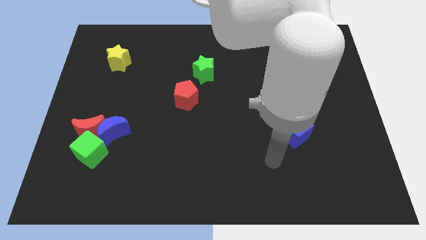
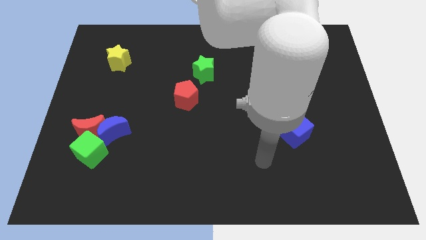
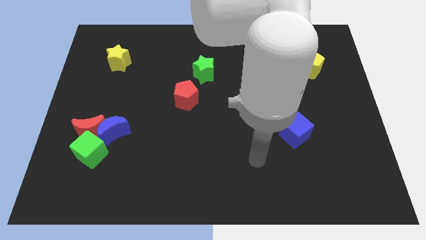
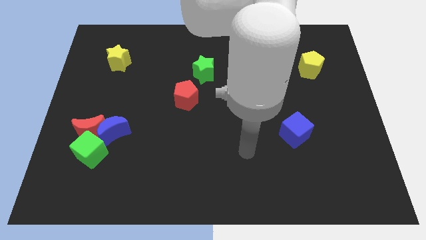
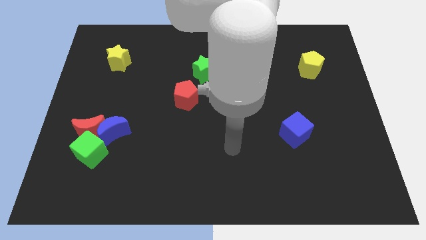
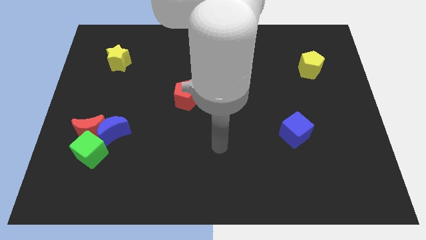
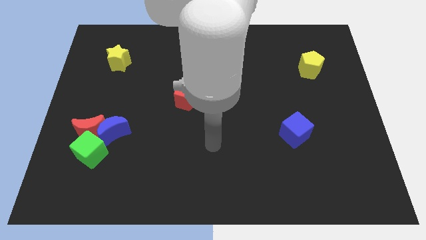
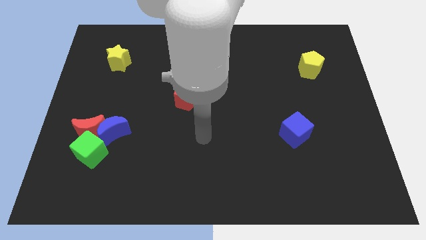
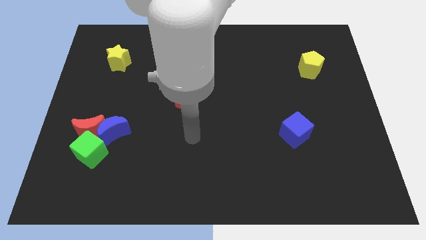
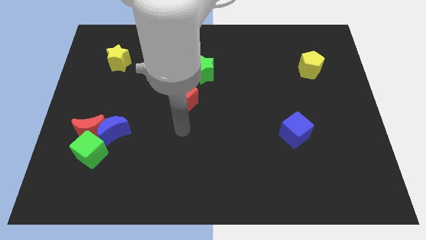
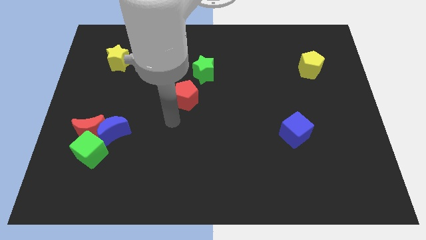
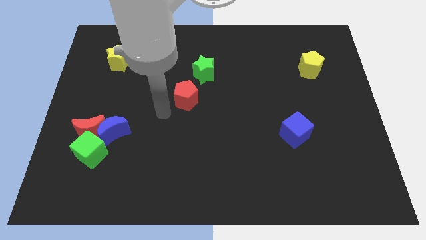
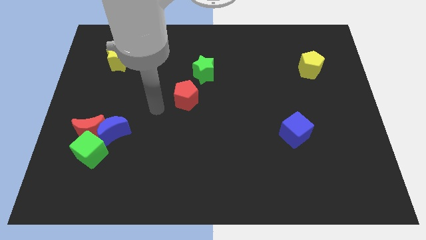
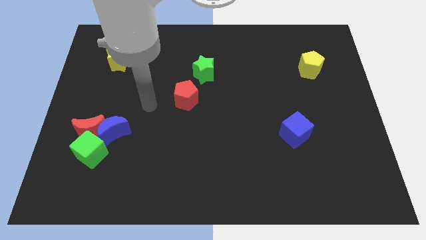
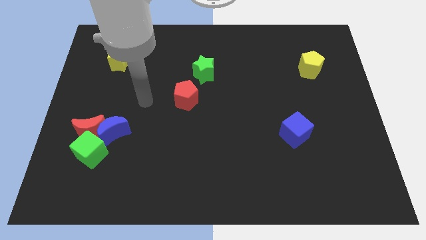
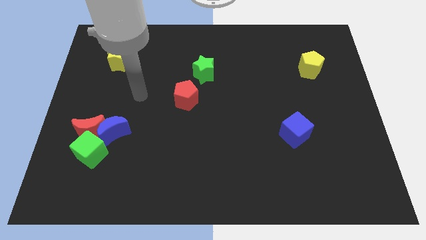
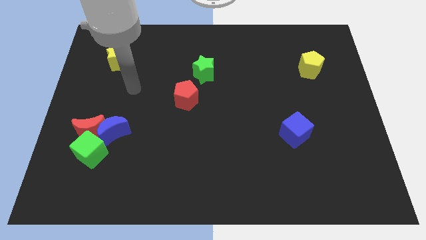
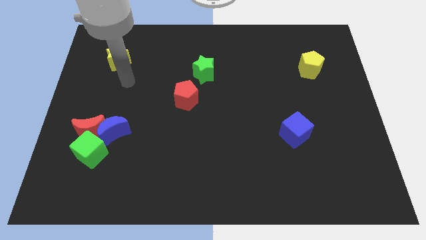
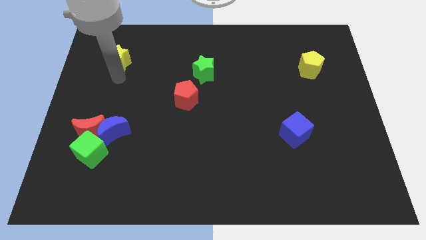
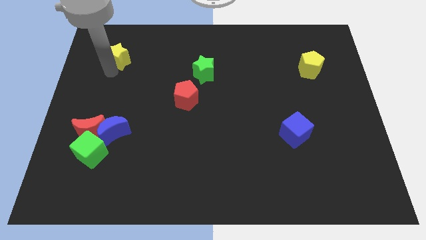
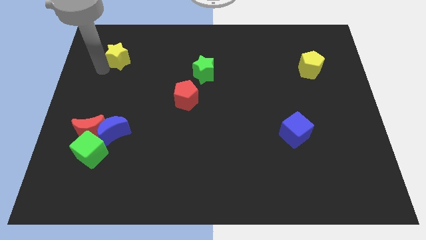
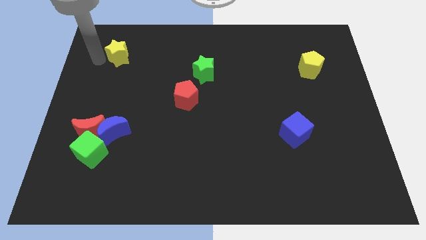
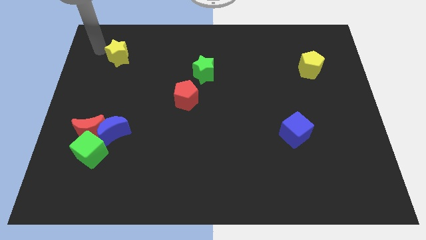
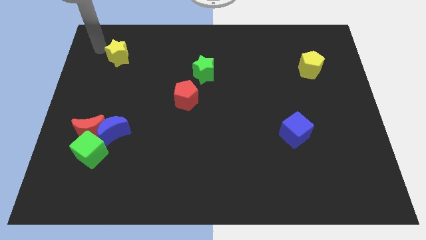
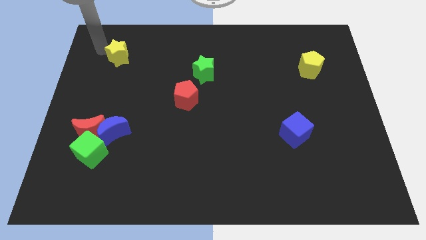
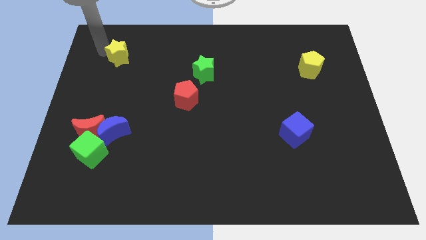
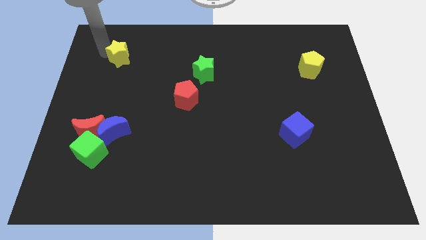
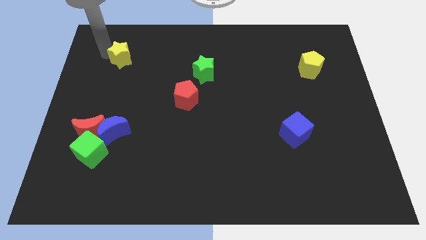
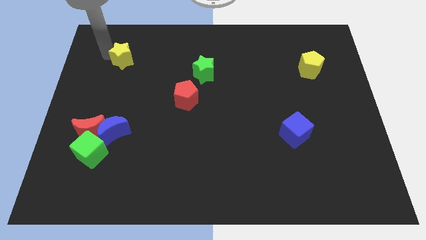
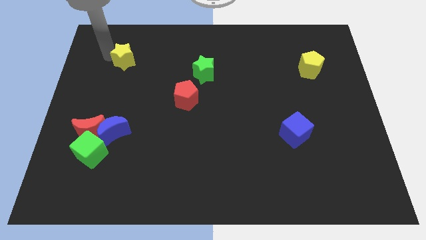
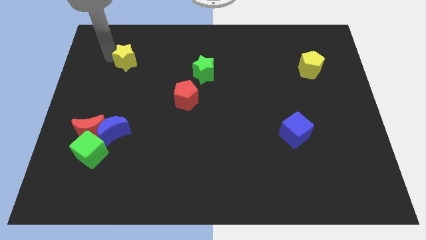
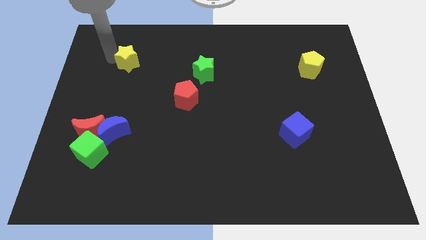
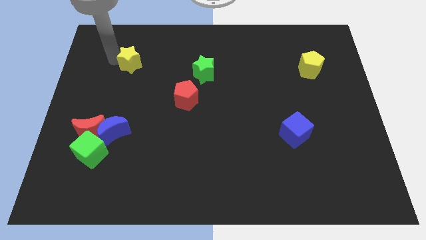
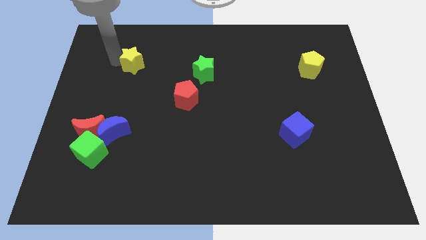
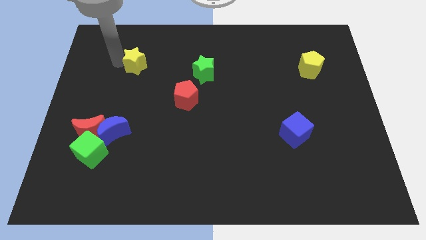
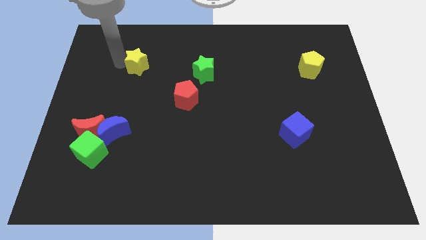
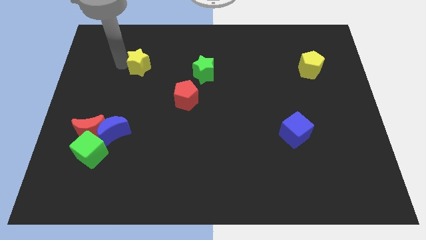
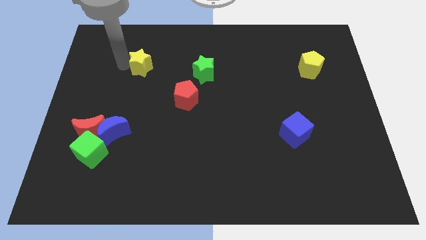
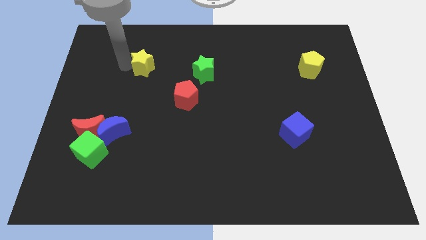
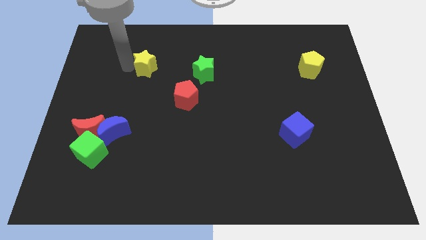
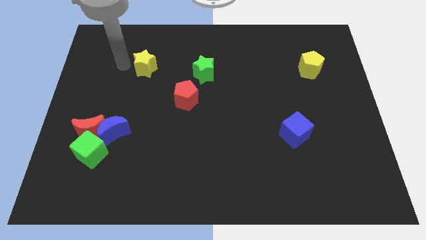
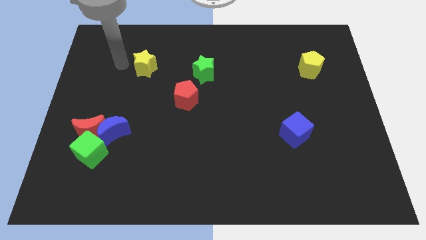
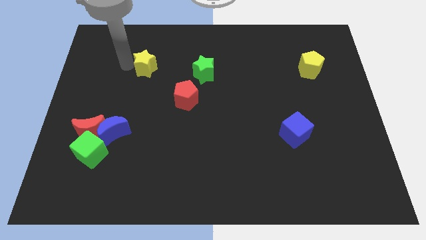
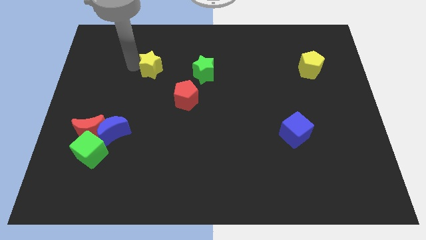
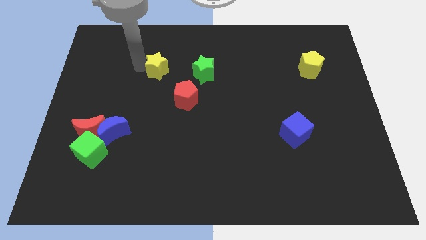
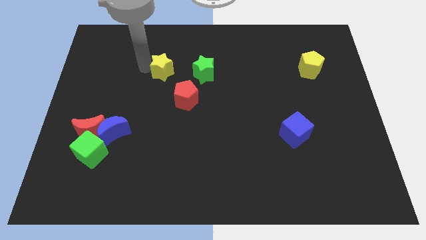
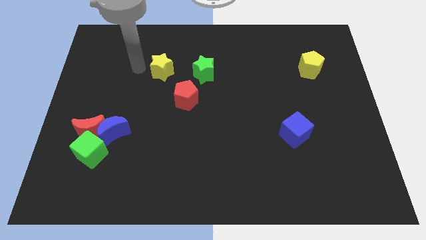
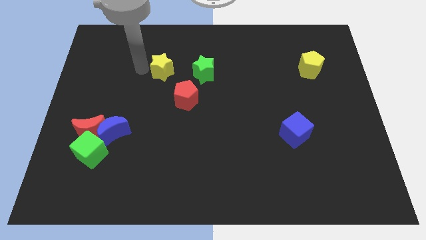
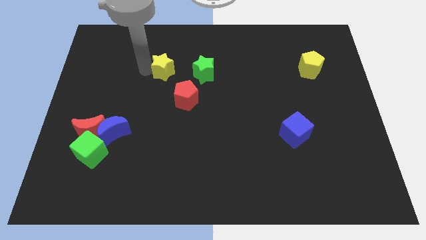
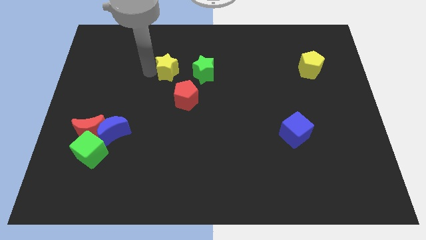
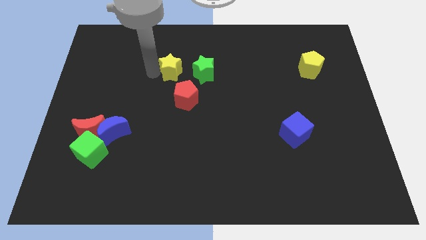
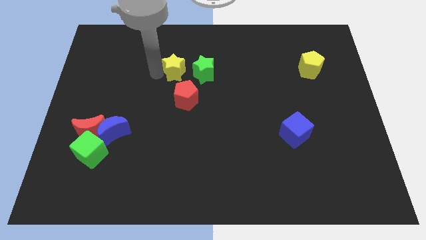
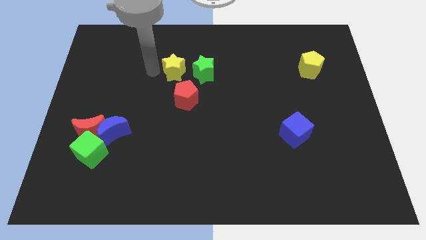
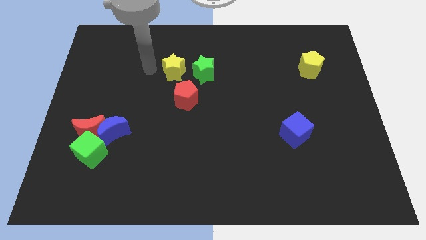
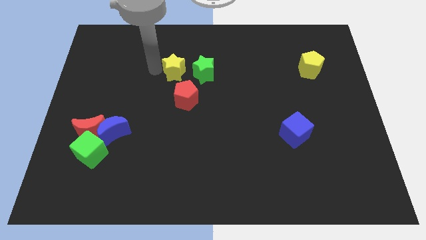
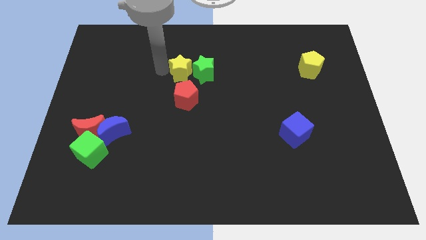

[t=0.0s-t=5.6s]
slide the yellow star to the green star

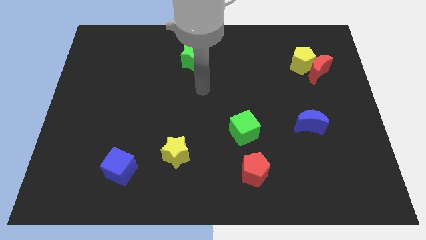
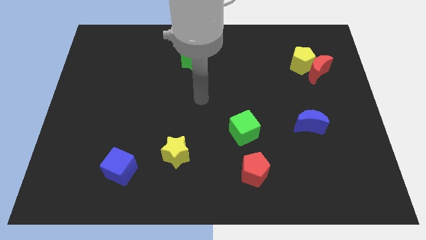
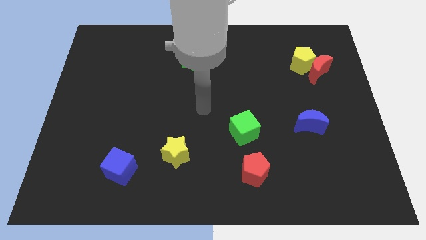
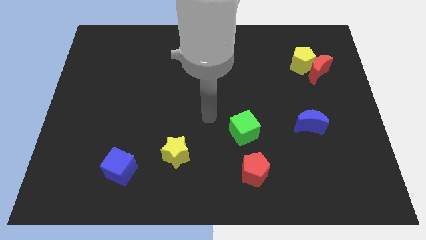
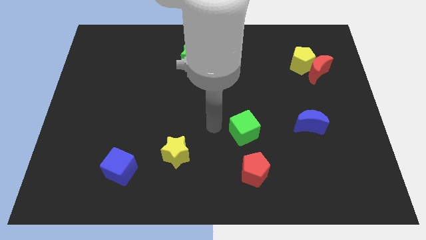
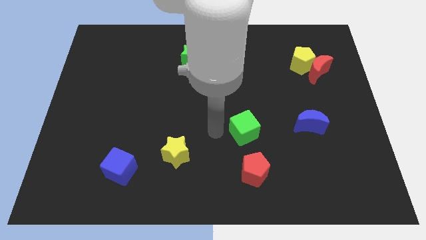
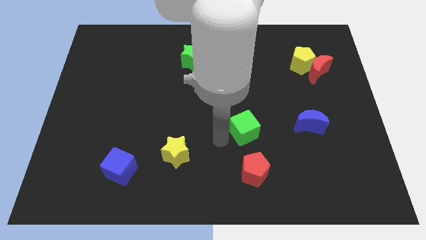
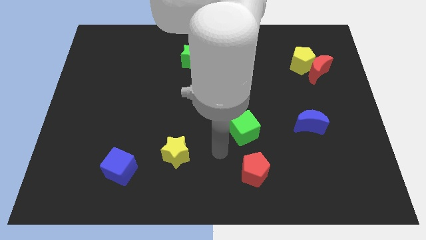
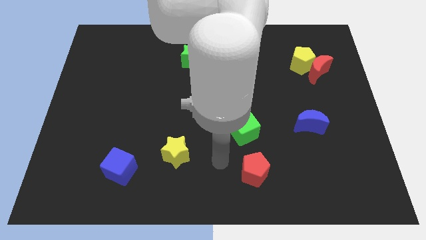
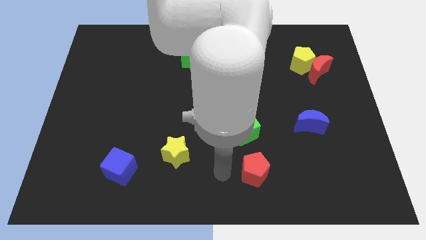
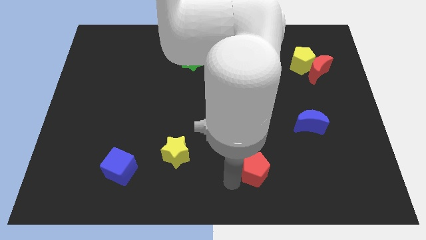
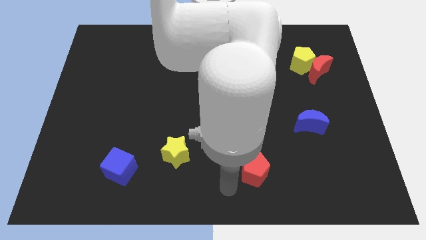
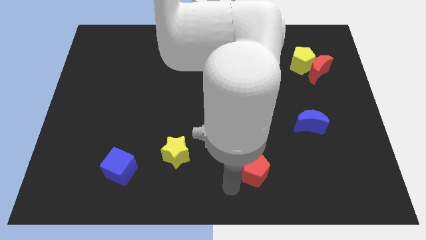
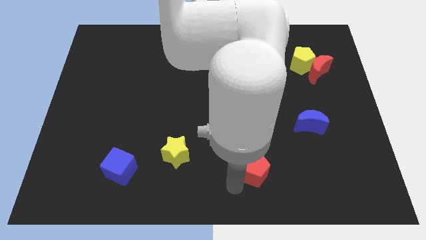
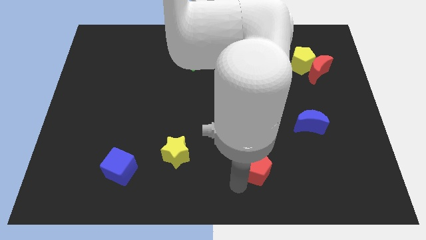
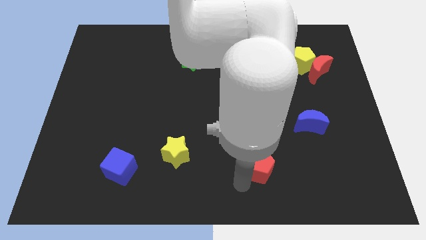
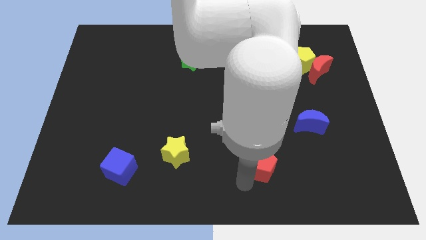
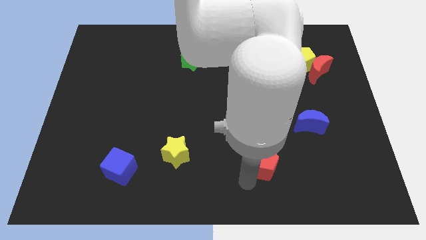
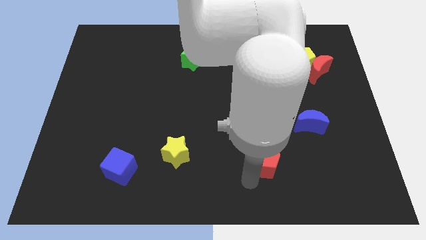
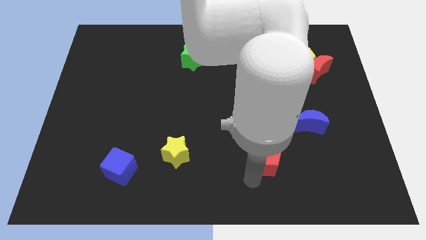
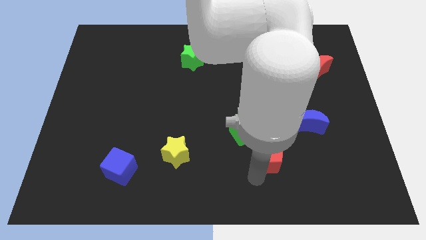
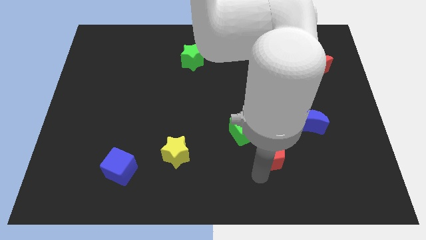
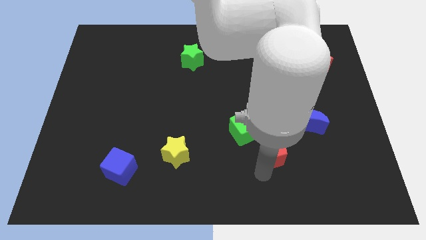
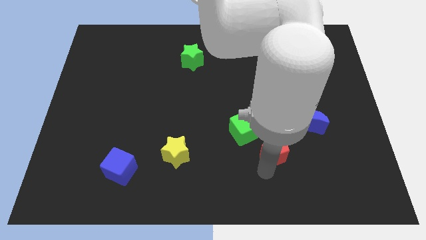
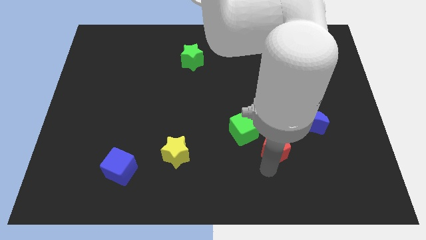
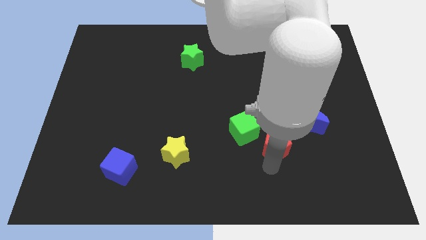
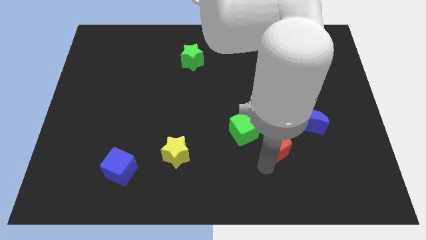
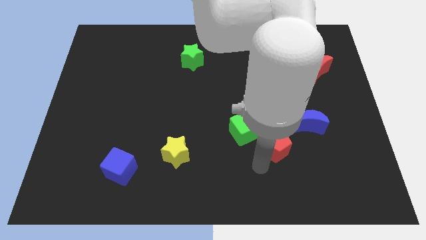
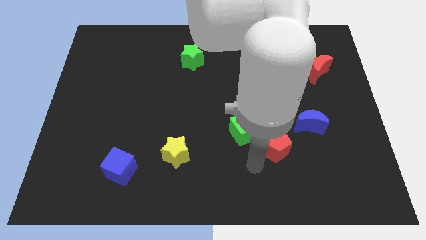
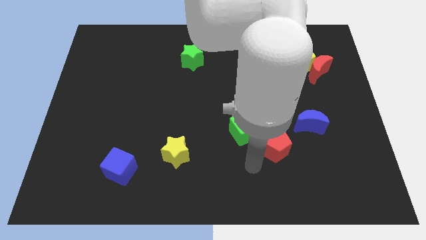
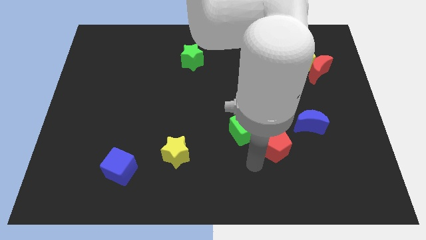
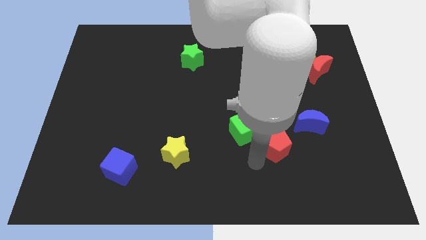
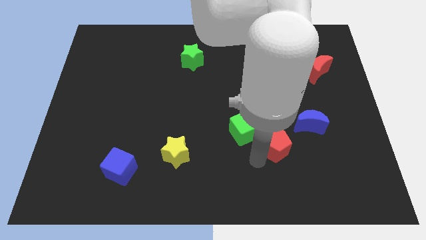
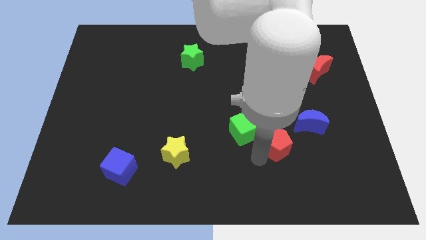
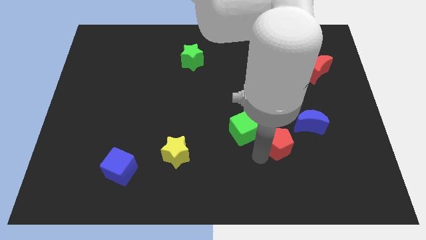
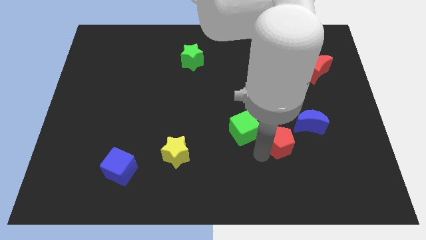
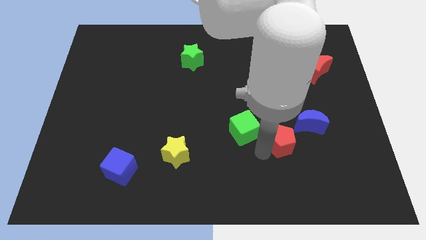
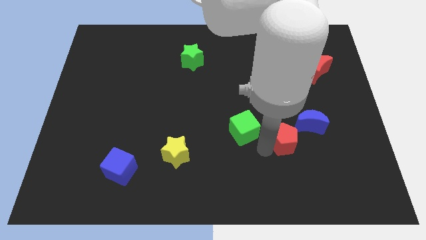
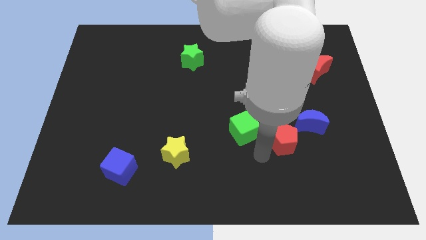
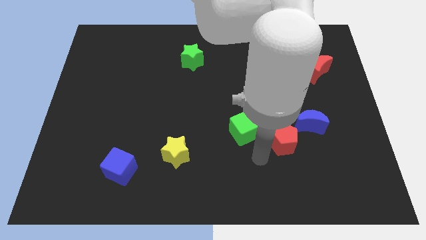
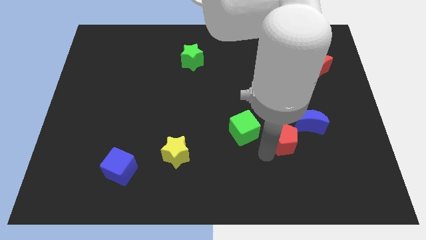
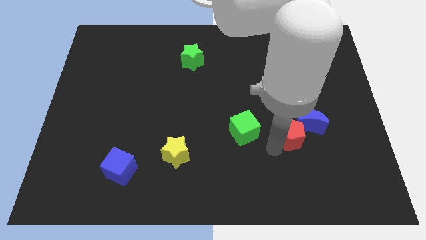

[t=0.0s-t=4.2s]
move the red pentagon towards the blue moon
